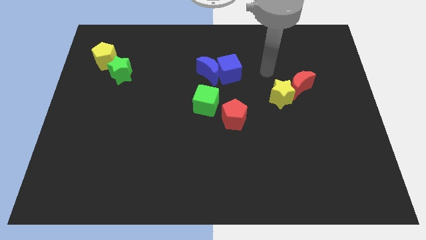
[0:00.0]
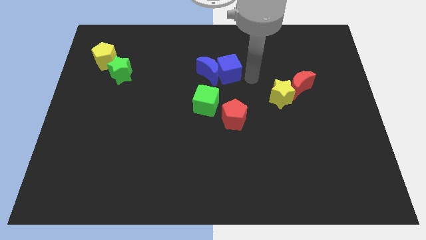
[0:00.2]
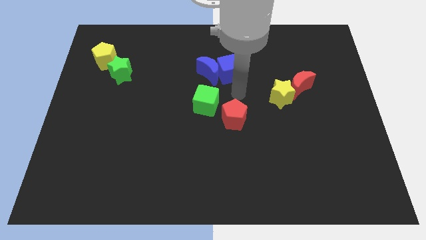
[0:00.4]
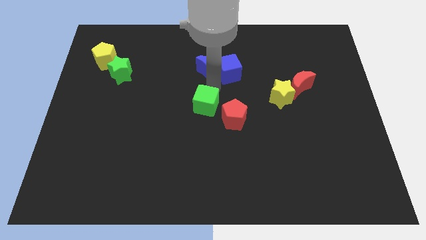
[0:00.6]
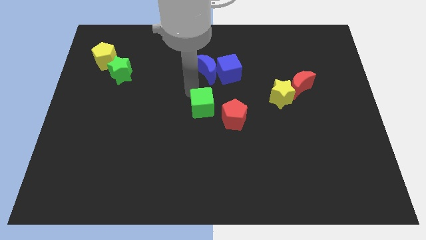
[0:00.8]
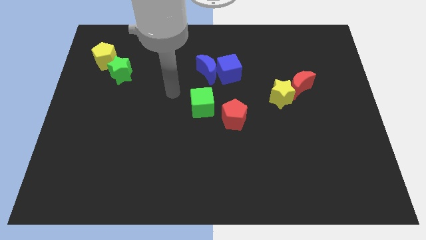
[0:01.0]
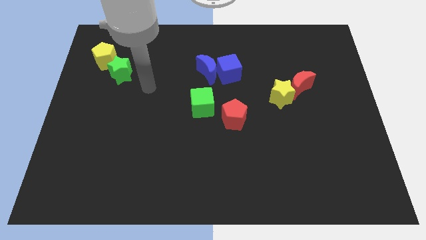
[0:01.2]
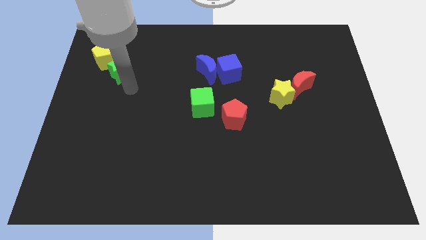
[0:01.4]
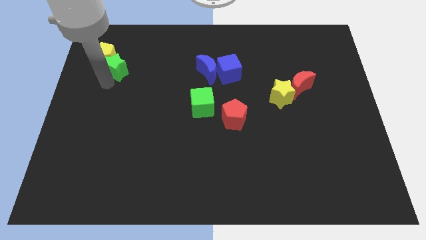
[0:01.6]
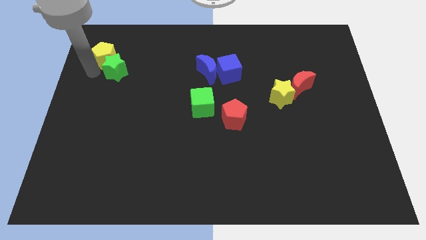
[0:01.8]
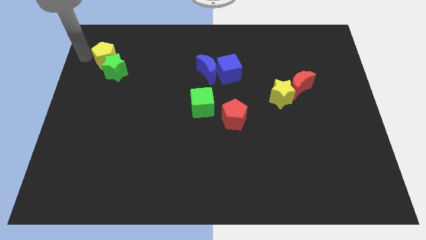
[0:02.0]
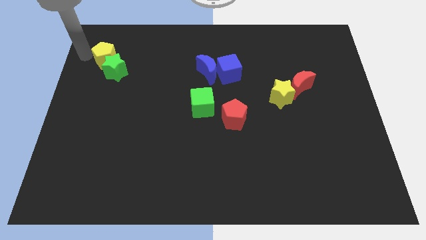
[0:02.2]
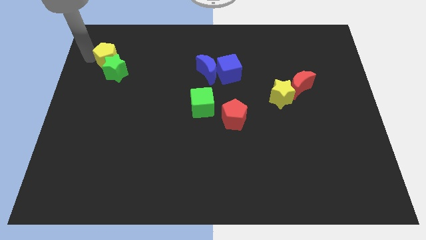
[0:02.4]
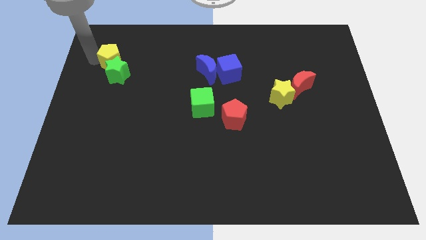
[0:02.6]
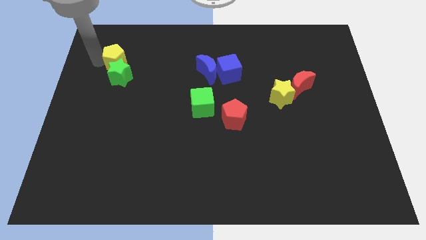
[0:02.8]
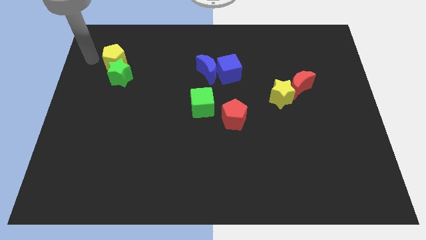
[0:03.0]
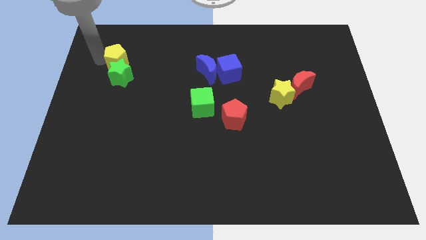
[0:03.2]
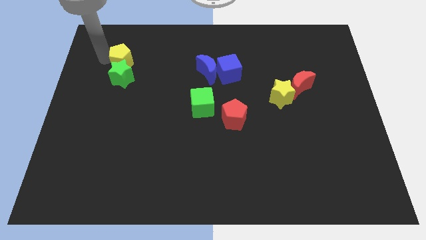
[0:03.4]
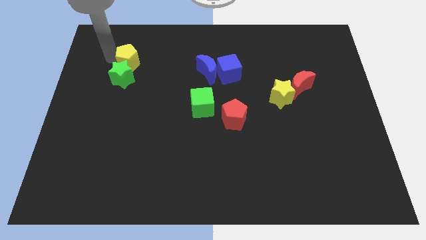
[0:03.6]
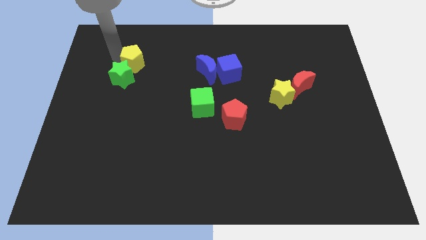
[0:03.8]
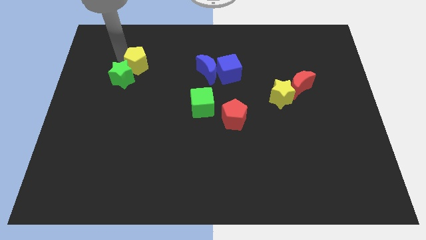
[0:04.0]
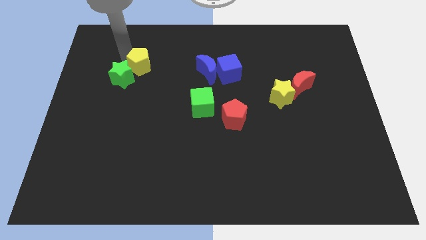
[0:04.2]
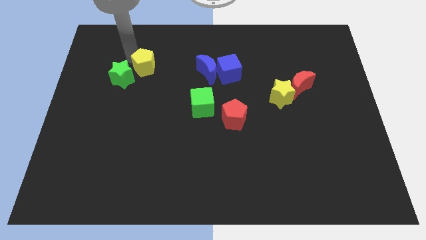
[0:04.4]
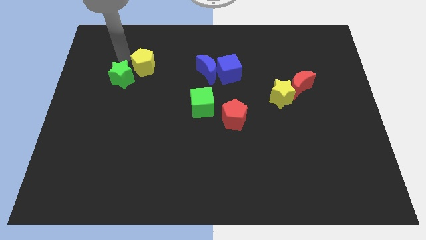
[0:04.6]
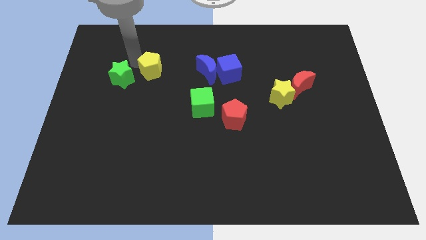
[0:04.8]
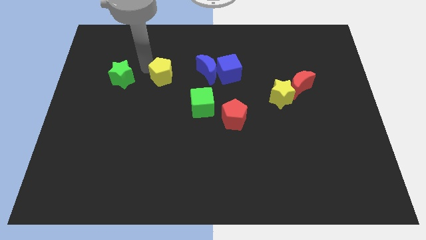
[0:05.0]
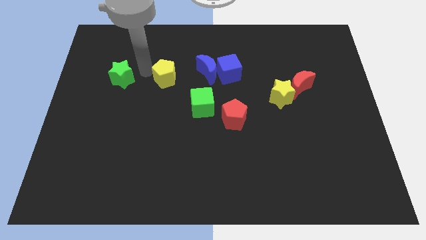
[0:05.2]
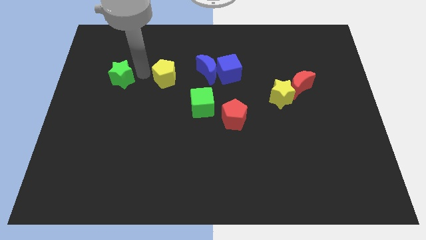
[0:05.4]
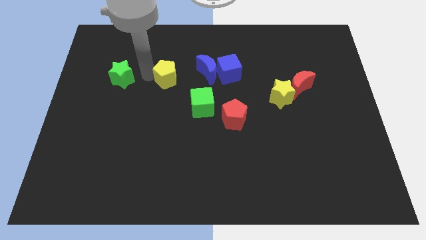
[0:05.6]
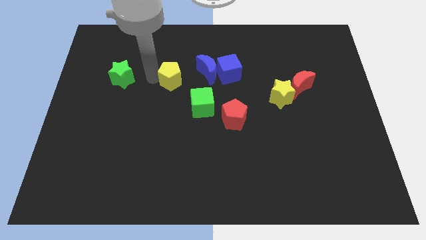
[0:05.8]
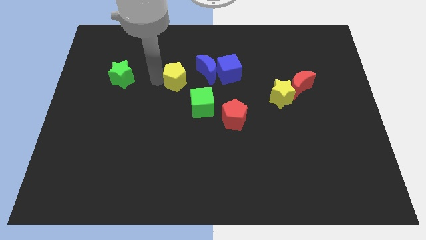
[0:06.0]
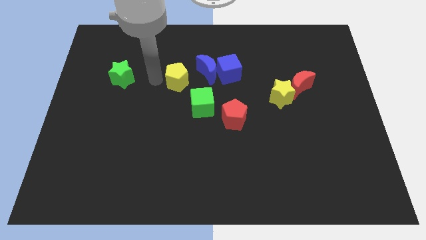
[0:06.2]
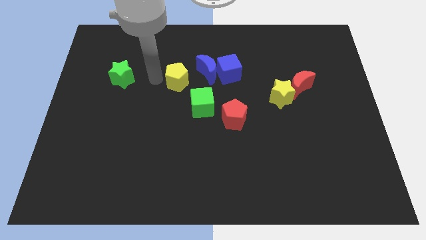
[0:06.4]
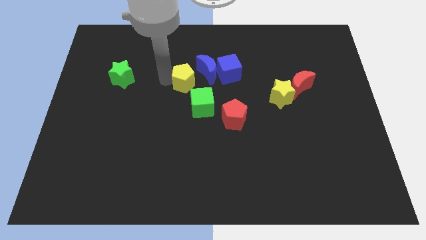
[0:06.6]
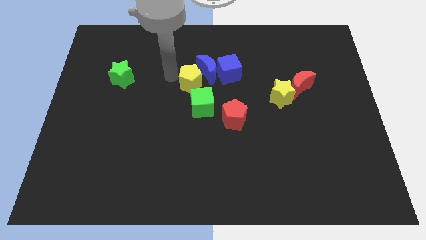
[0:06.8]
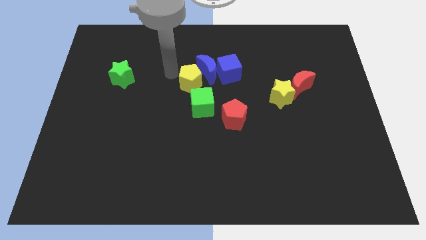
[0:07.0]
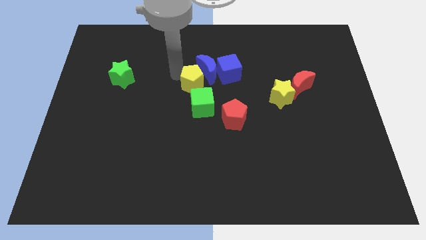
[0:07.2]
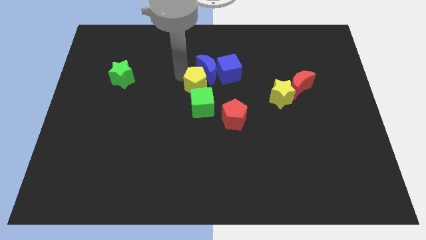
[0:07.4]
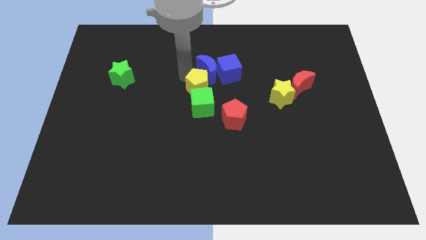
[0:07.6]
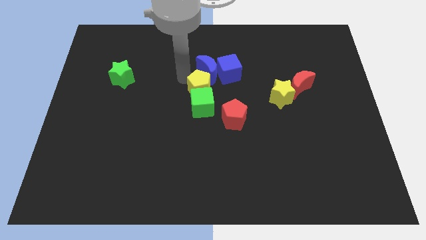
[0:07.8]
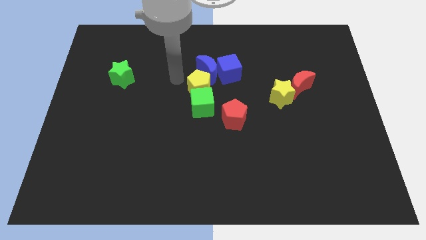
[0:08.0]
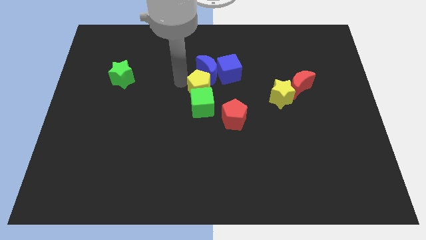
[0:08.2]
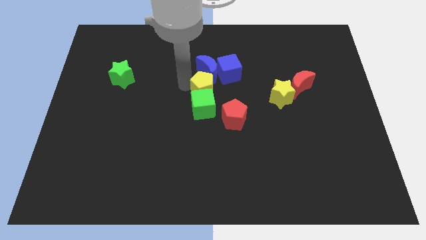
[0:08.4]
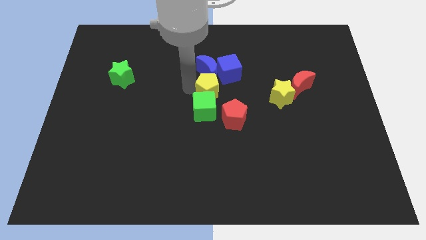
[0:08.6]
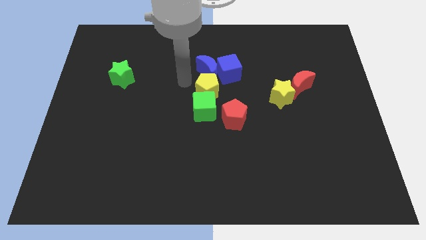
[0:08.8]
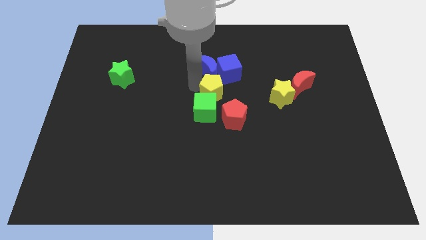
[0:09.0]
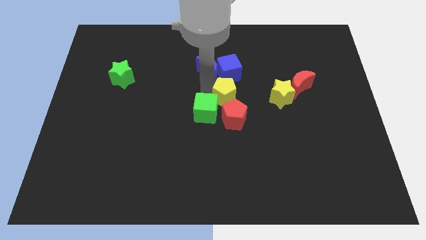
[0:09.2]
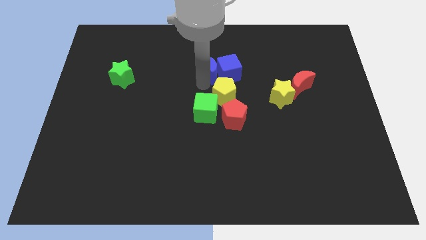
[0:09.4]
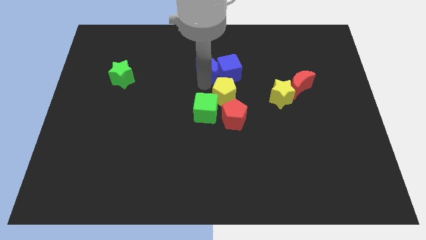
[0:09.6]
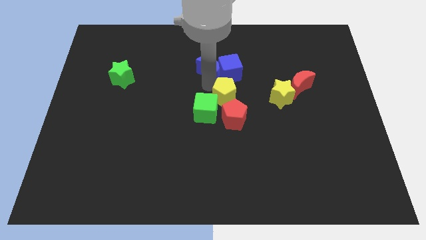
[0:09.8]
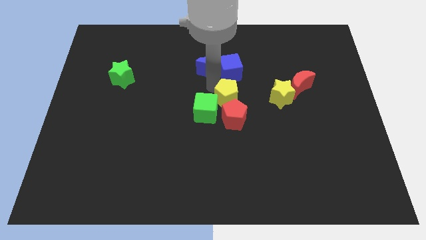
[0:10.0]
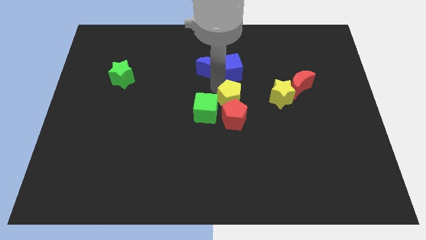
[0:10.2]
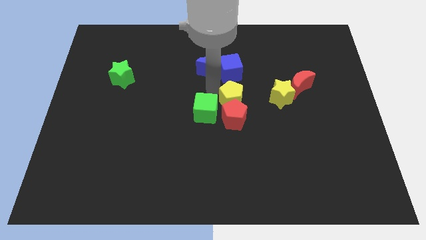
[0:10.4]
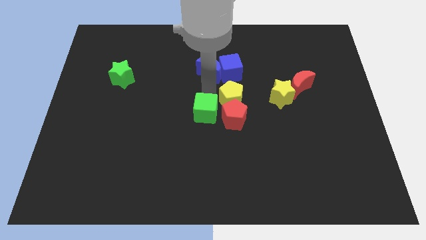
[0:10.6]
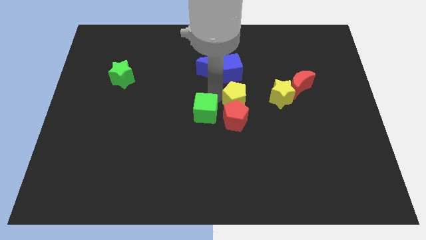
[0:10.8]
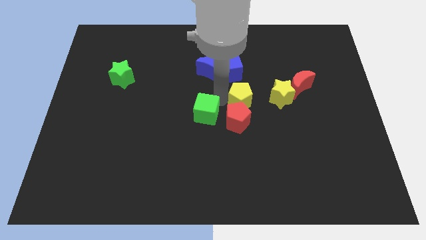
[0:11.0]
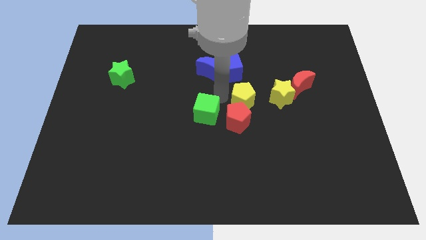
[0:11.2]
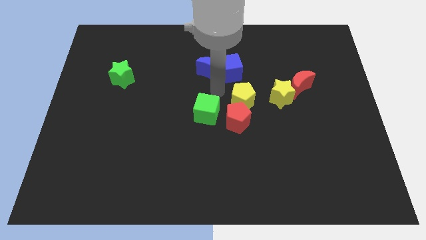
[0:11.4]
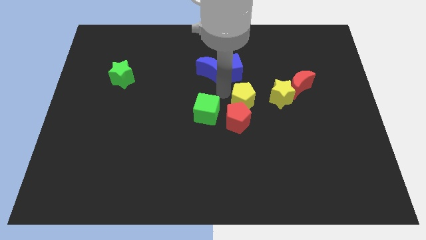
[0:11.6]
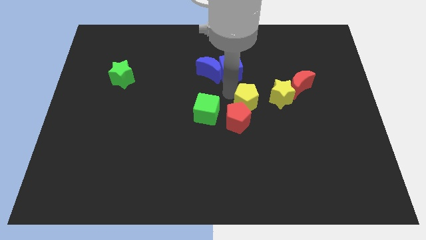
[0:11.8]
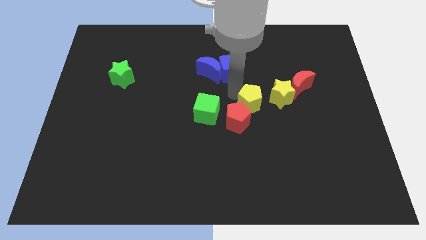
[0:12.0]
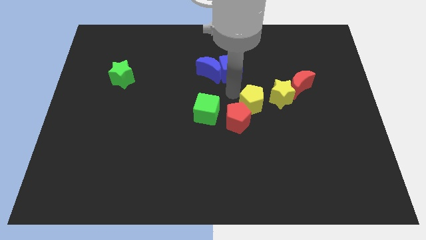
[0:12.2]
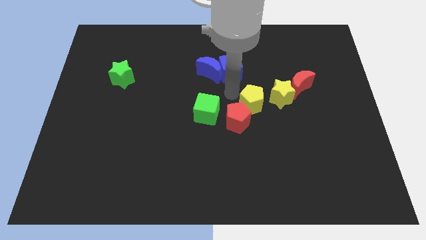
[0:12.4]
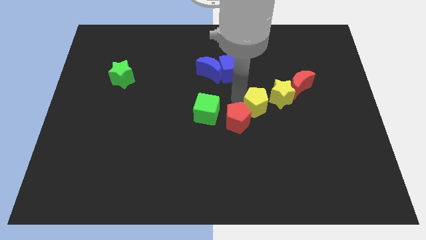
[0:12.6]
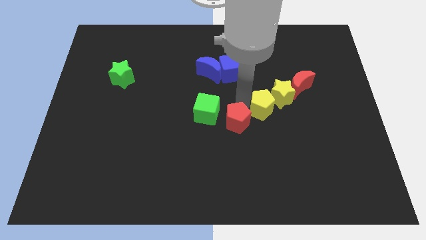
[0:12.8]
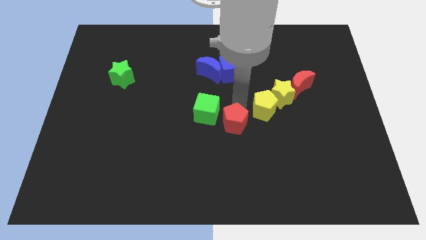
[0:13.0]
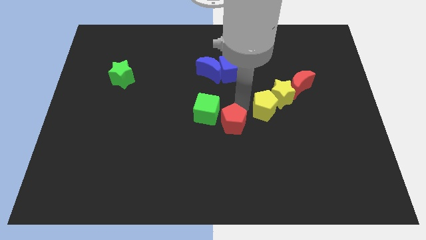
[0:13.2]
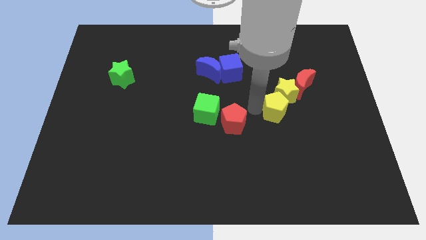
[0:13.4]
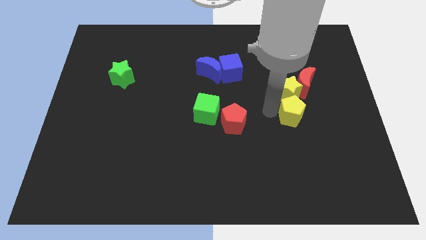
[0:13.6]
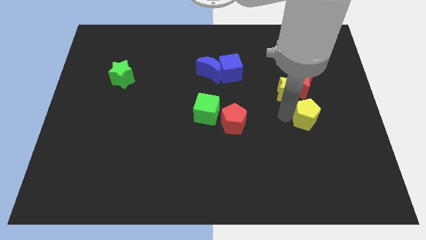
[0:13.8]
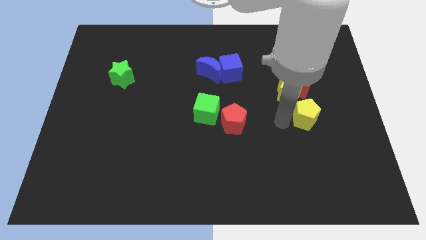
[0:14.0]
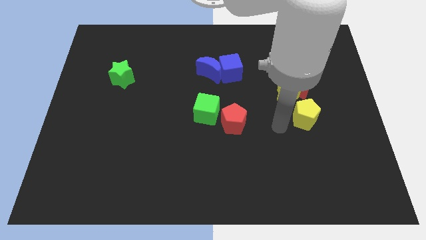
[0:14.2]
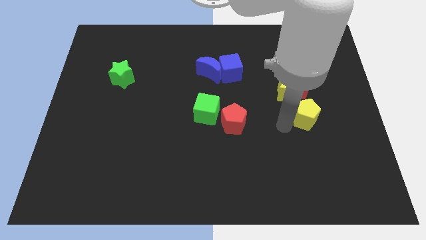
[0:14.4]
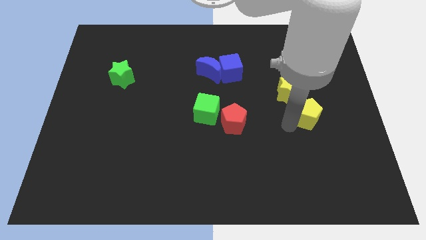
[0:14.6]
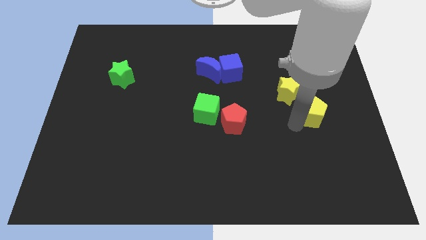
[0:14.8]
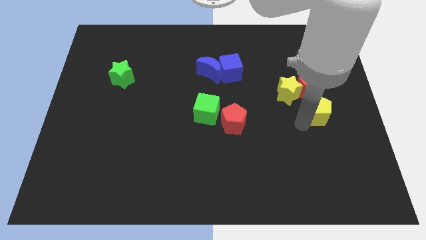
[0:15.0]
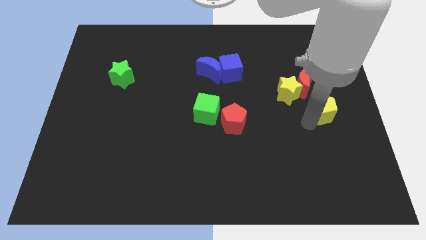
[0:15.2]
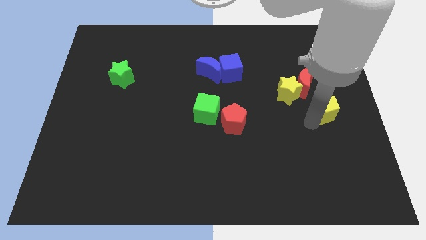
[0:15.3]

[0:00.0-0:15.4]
push the yellow pentagon to the right side
